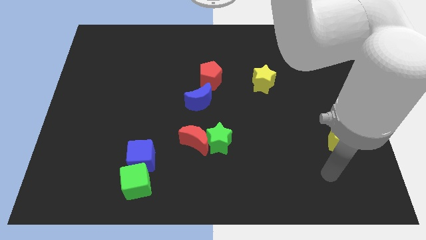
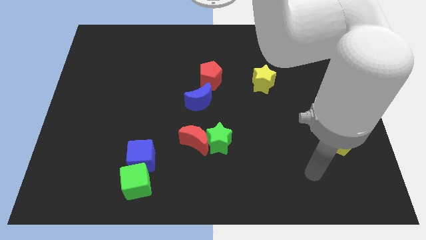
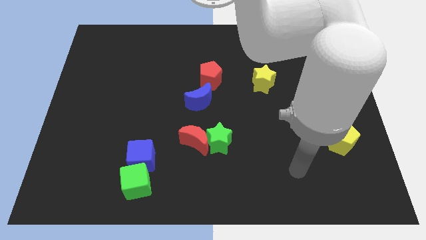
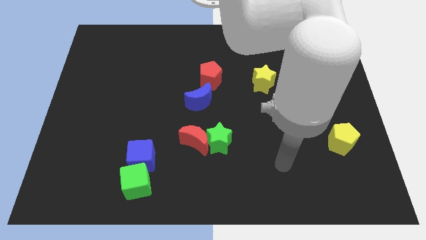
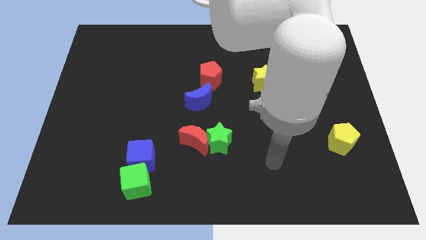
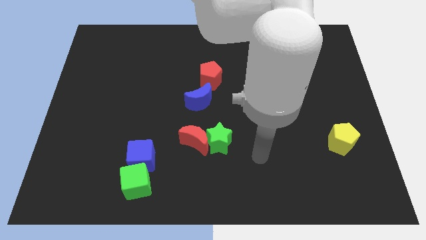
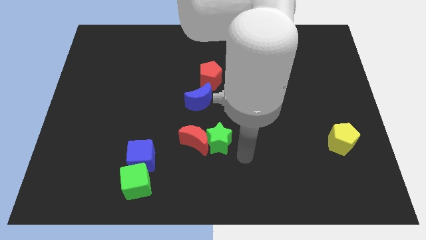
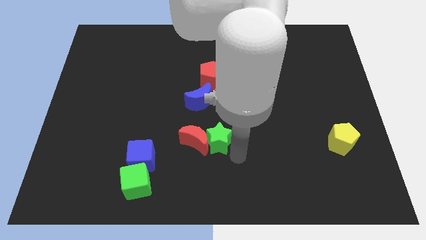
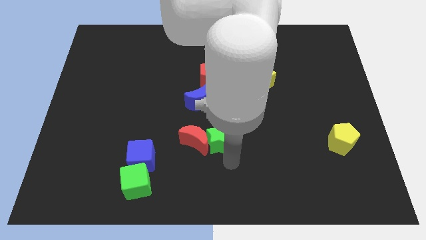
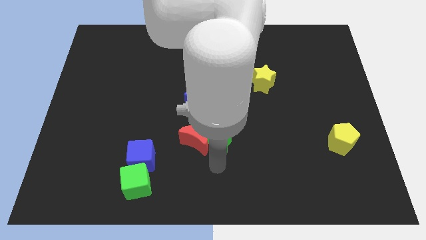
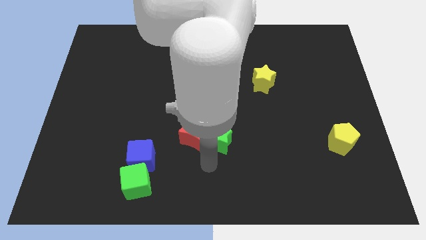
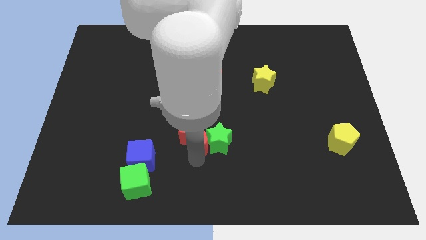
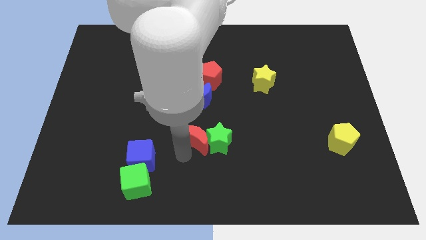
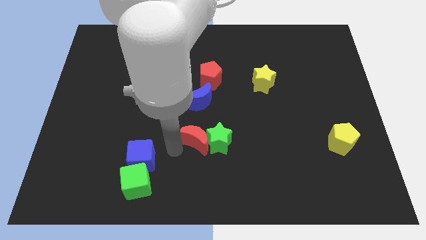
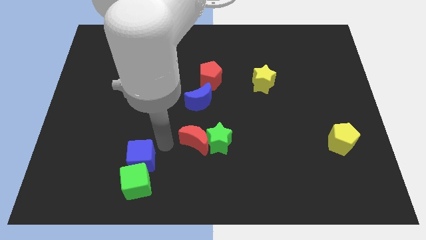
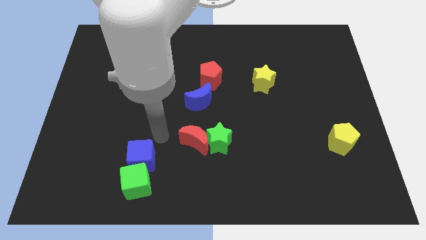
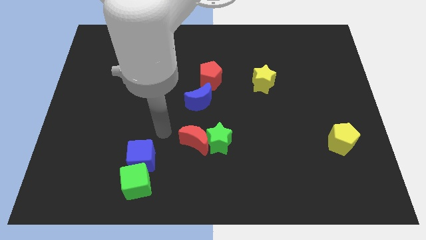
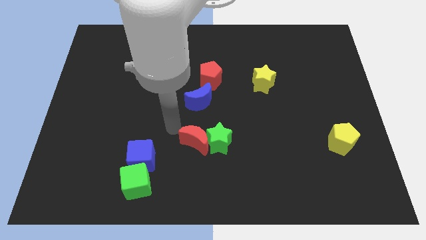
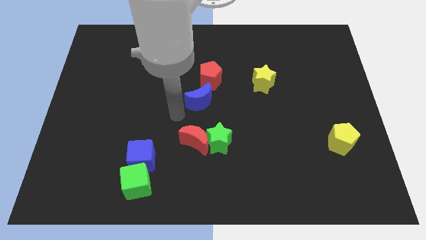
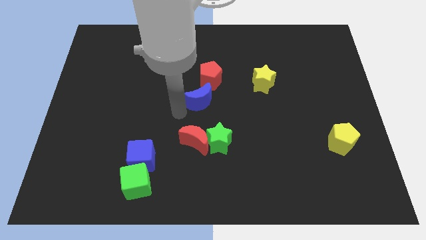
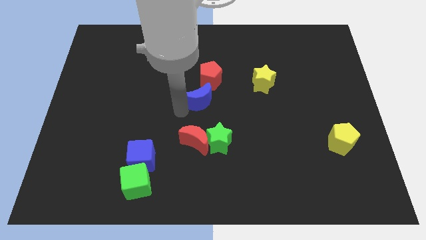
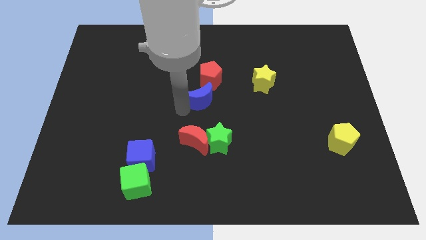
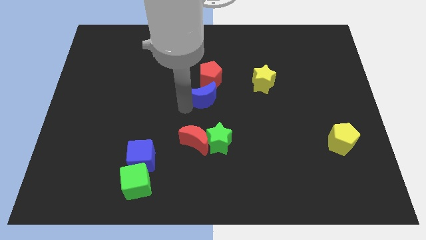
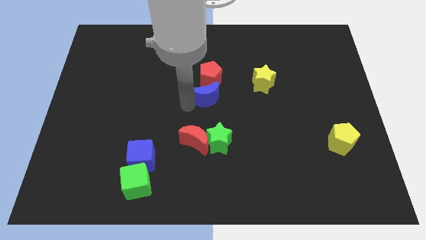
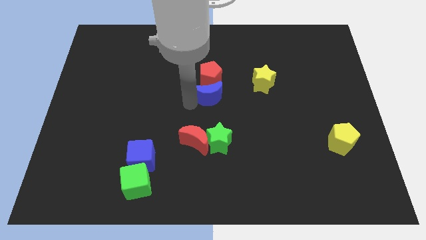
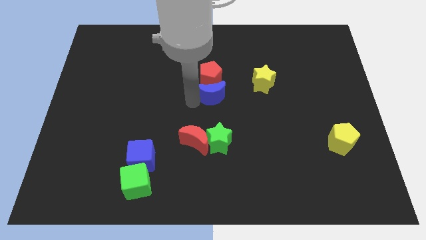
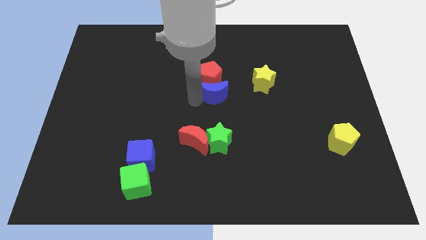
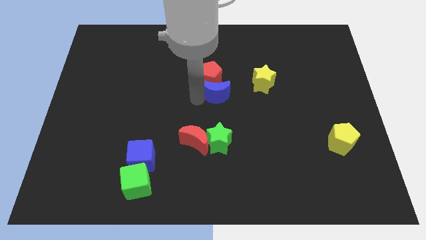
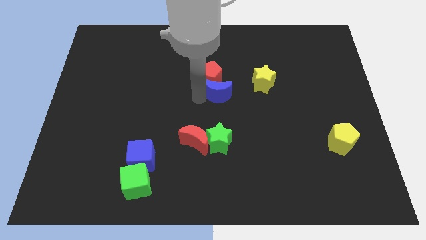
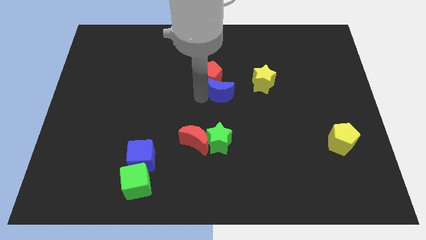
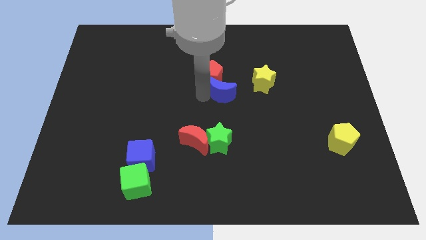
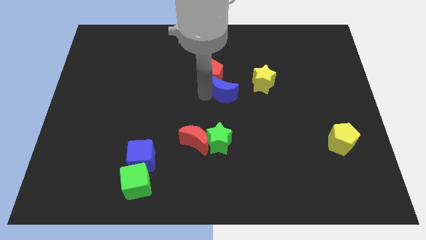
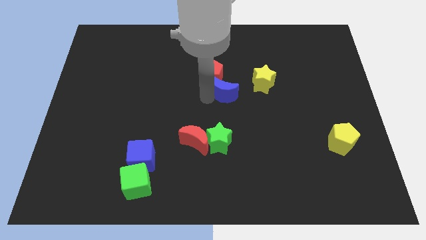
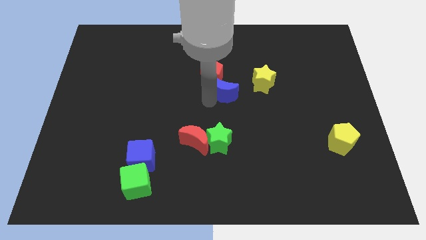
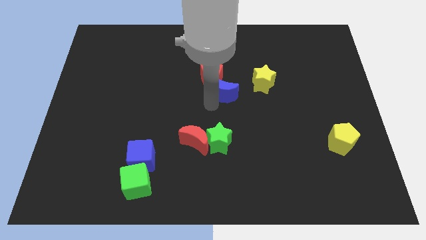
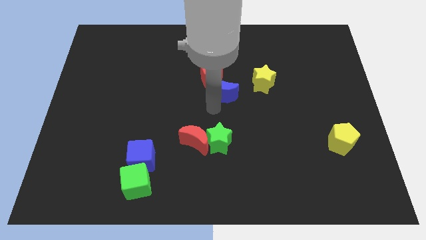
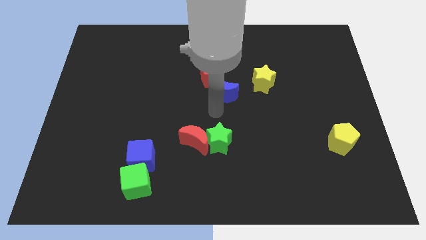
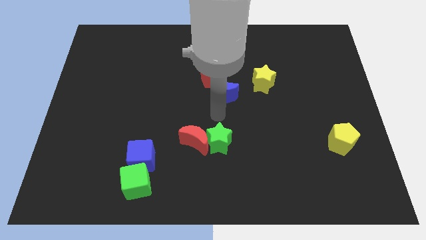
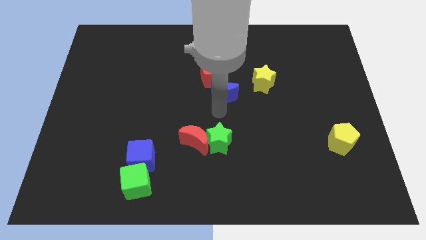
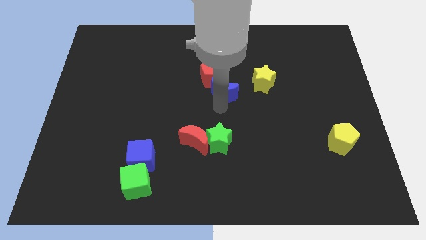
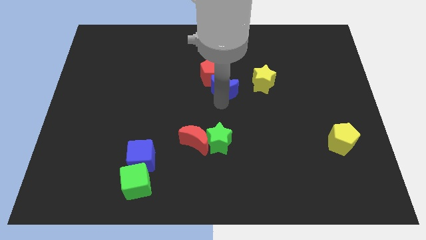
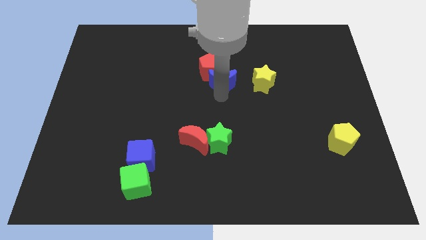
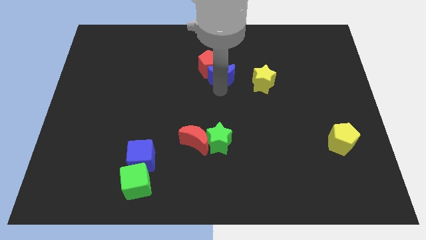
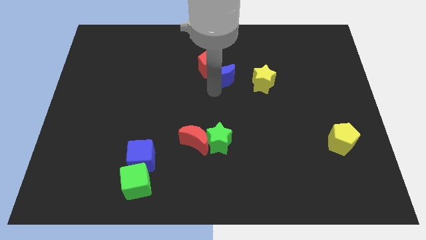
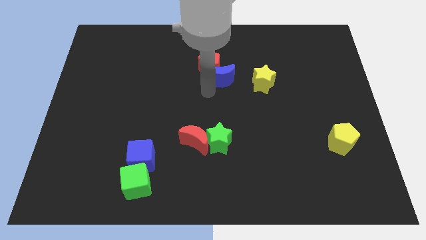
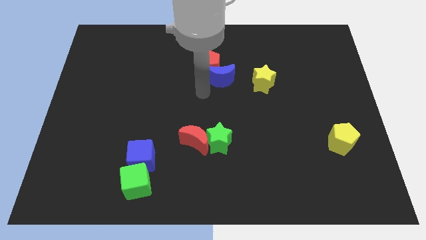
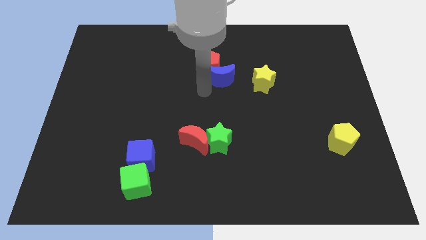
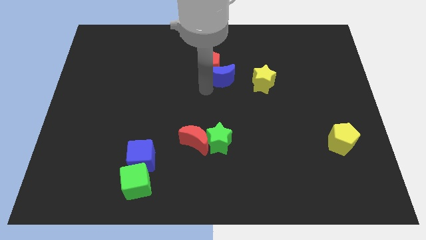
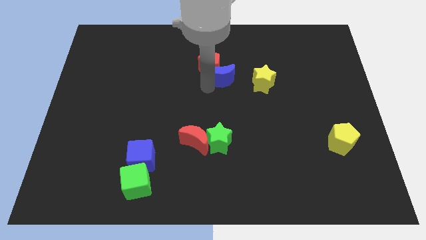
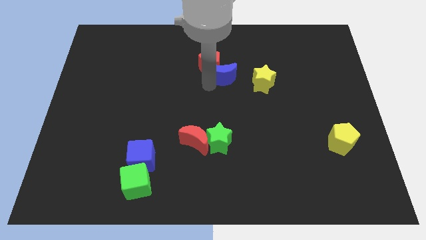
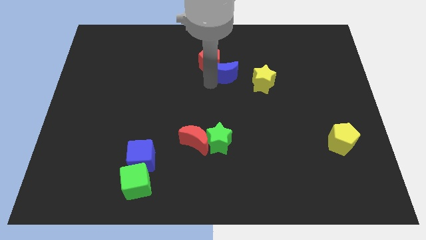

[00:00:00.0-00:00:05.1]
push the blue moon diagonally up and to the left of the yellow star
